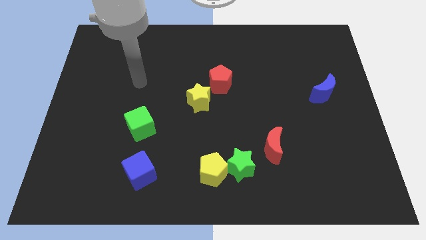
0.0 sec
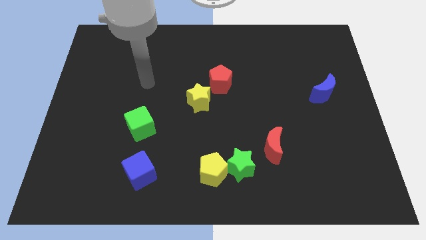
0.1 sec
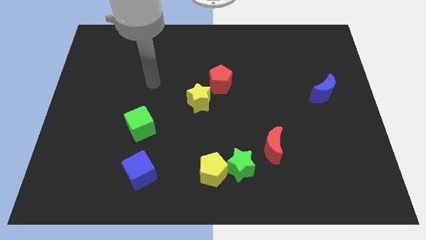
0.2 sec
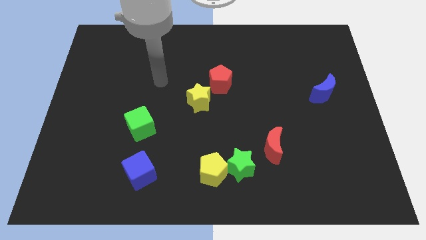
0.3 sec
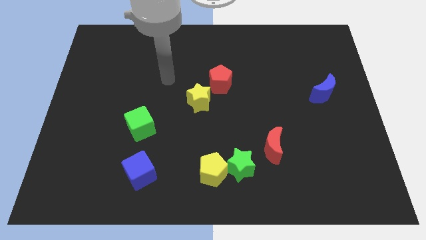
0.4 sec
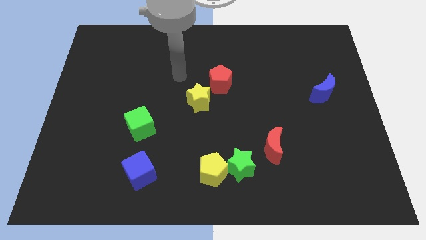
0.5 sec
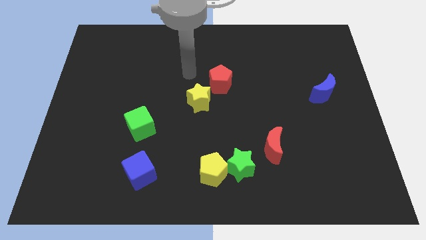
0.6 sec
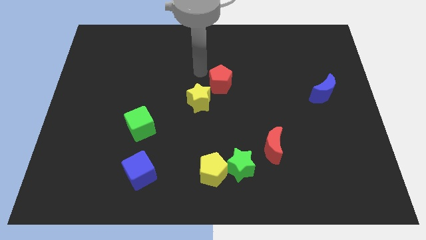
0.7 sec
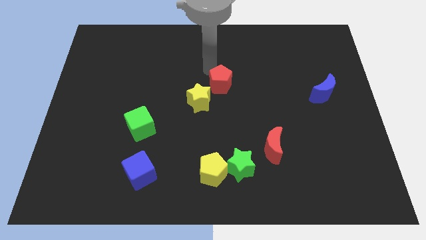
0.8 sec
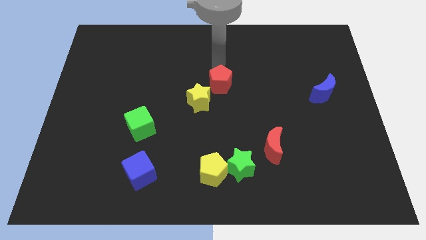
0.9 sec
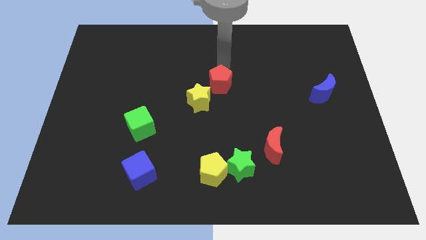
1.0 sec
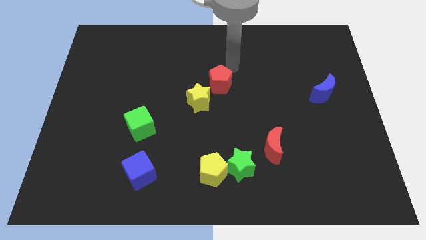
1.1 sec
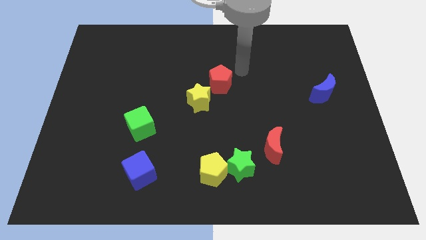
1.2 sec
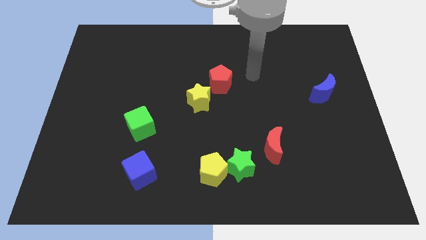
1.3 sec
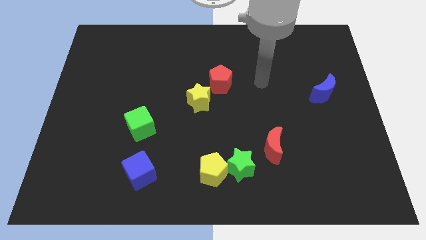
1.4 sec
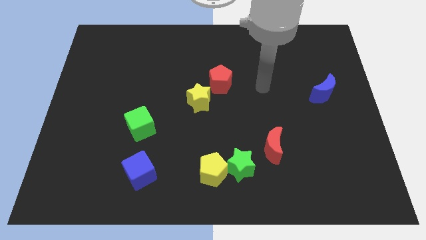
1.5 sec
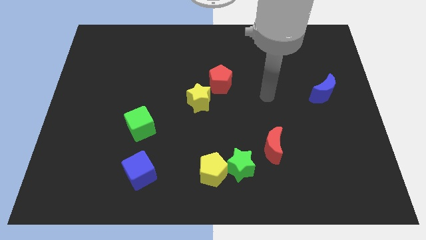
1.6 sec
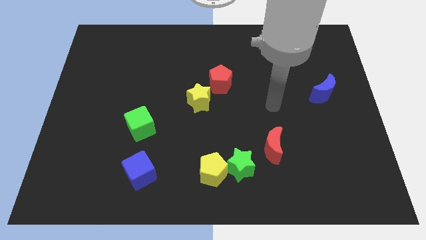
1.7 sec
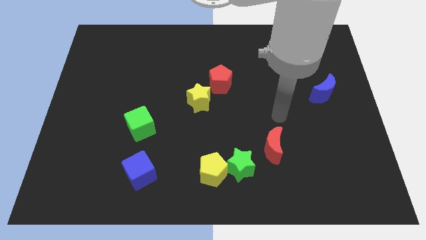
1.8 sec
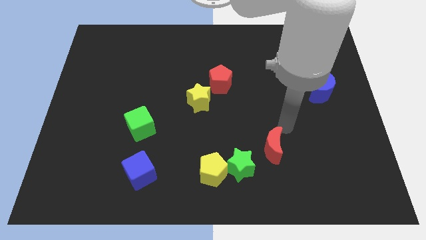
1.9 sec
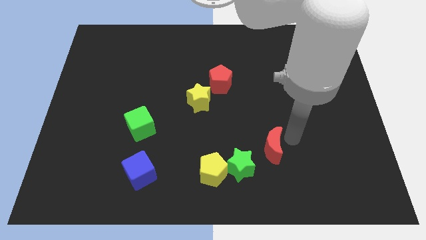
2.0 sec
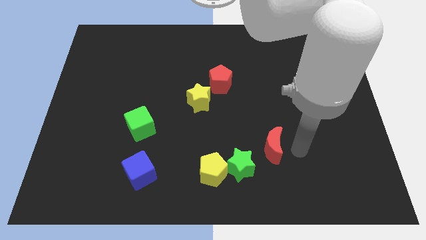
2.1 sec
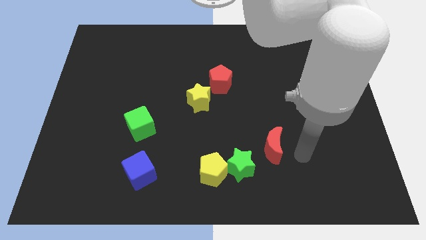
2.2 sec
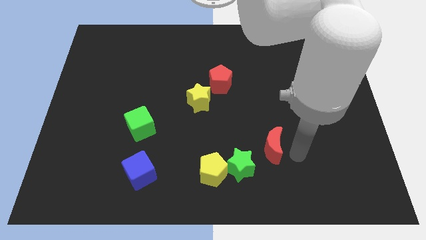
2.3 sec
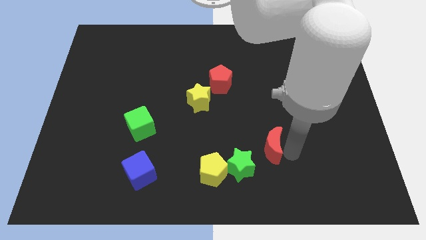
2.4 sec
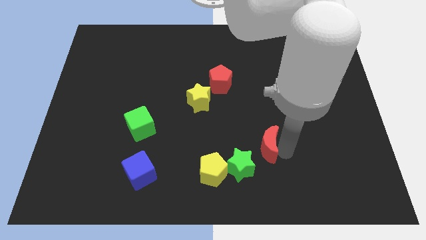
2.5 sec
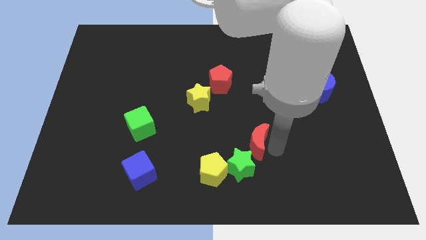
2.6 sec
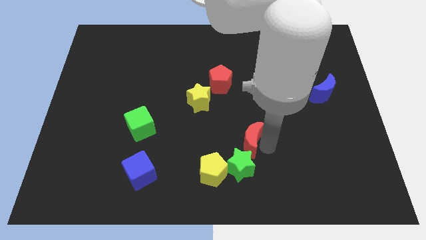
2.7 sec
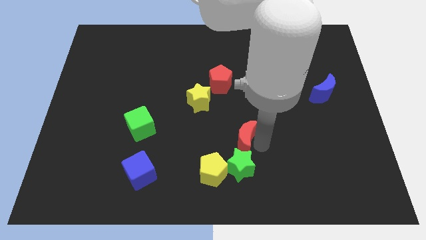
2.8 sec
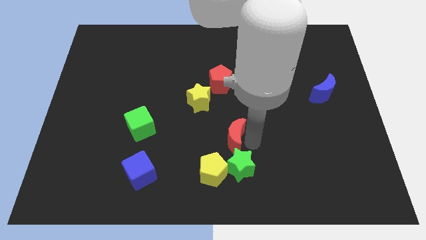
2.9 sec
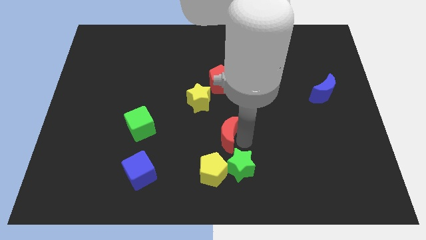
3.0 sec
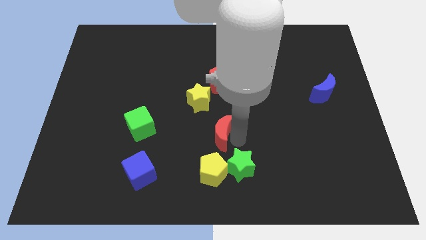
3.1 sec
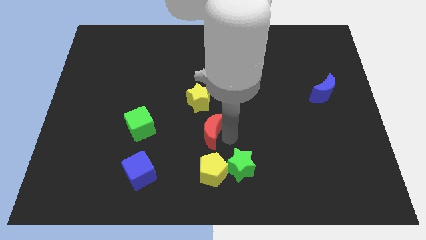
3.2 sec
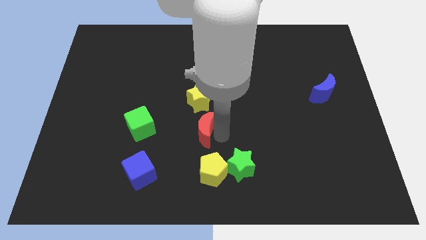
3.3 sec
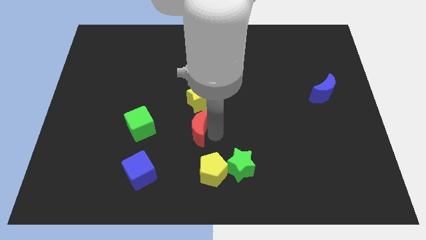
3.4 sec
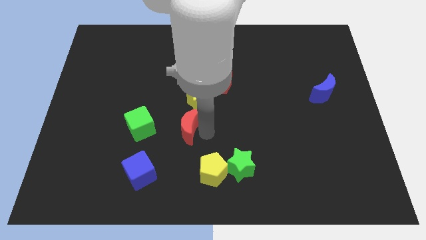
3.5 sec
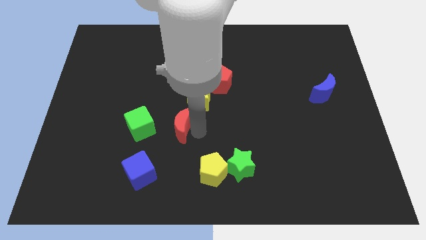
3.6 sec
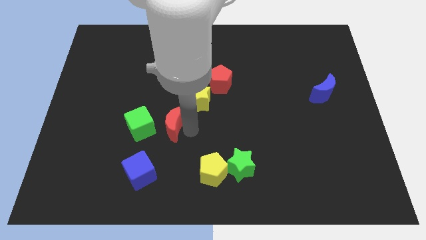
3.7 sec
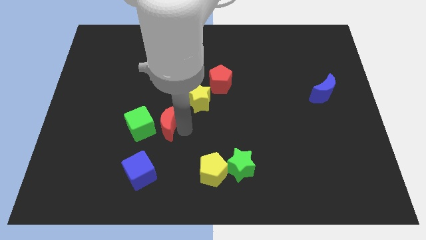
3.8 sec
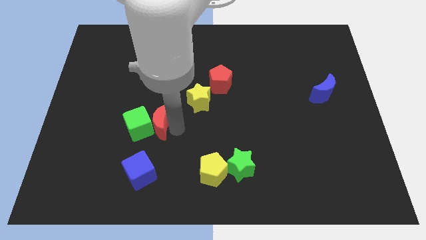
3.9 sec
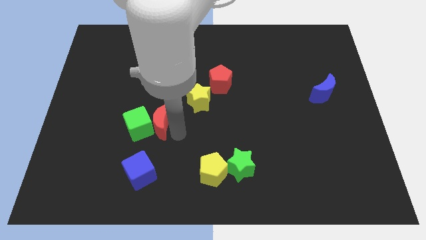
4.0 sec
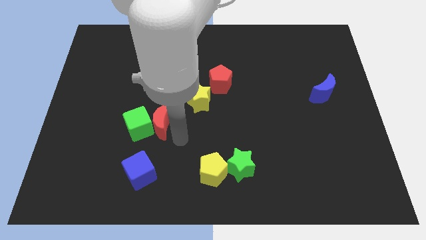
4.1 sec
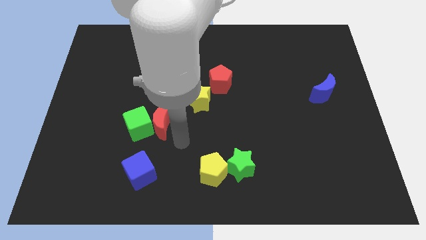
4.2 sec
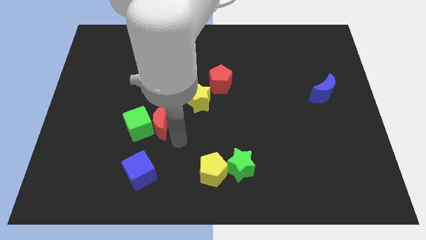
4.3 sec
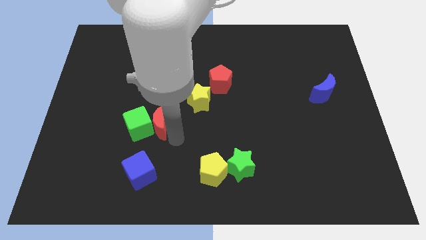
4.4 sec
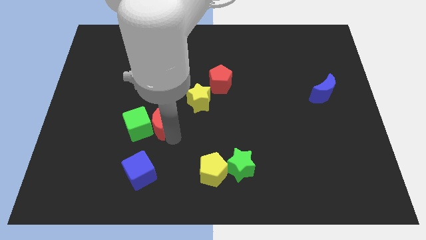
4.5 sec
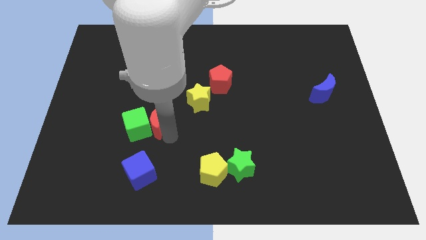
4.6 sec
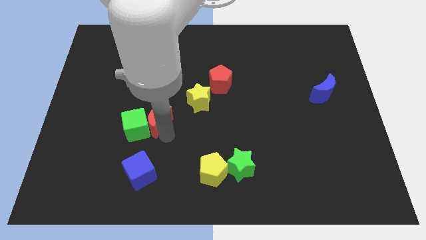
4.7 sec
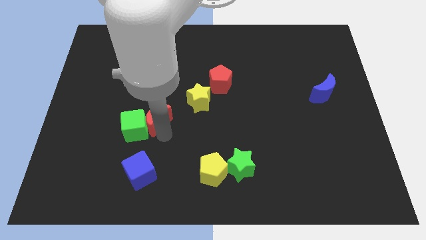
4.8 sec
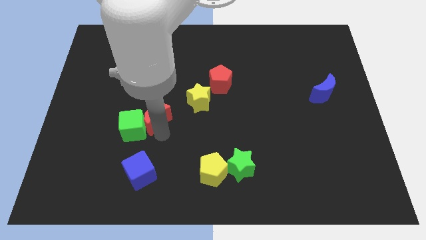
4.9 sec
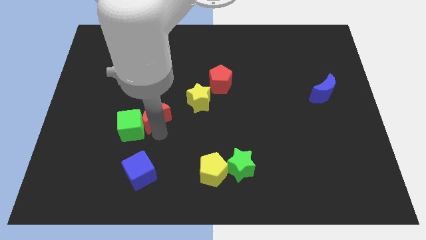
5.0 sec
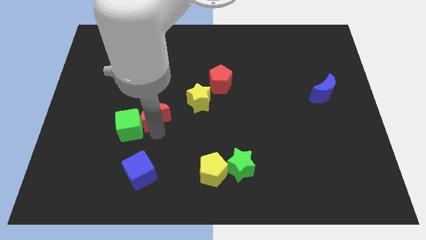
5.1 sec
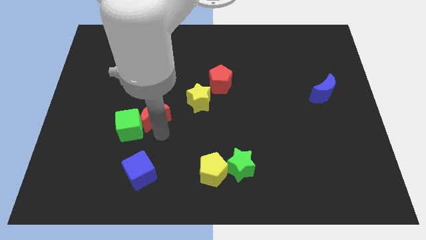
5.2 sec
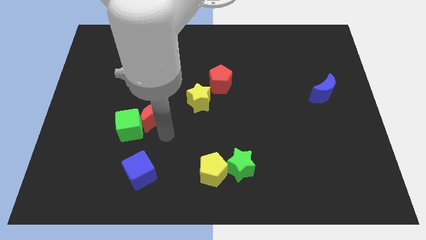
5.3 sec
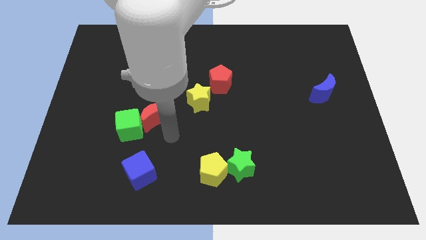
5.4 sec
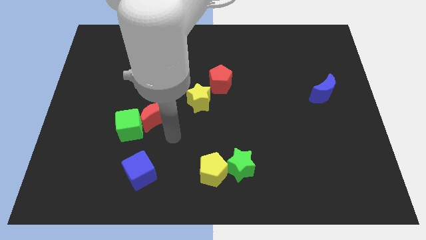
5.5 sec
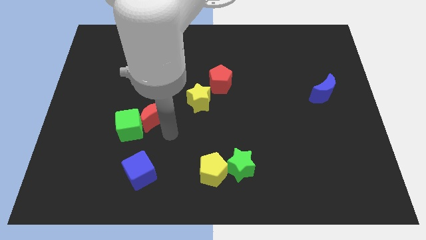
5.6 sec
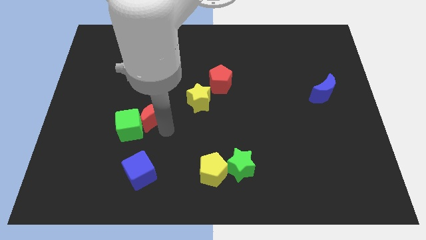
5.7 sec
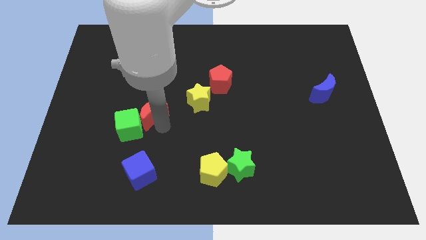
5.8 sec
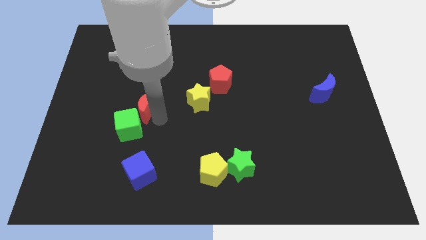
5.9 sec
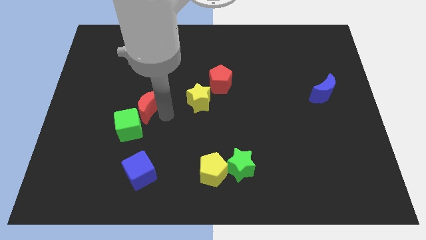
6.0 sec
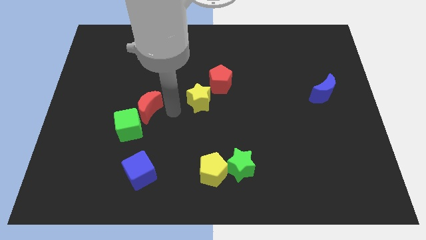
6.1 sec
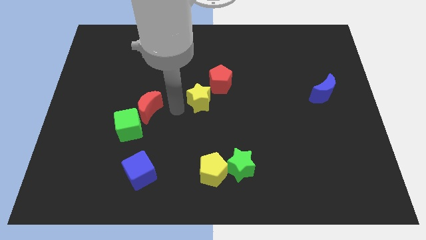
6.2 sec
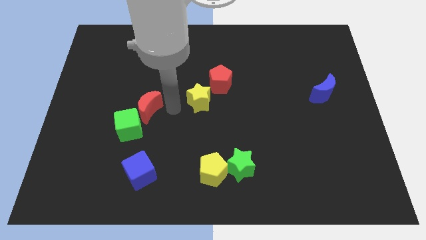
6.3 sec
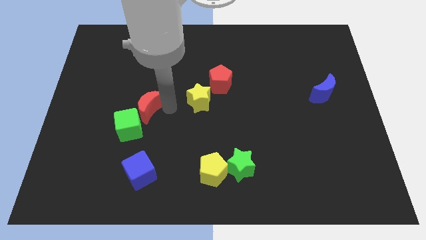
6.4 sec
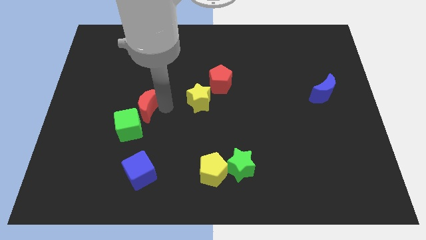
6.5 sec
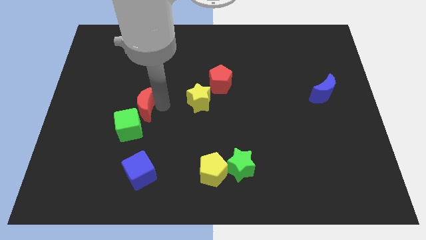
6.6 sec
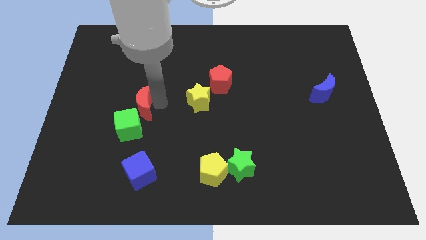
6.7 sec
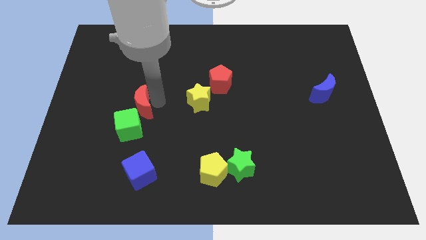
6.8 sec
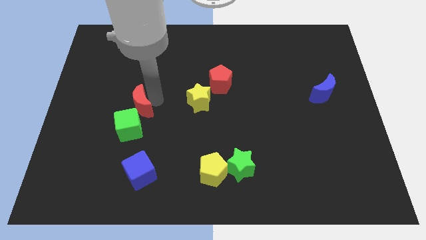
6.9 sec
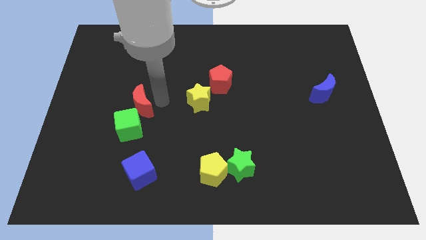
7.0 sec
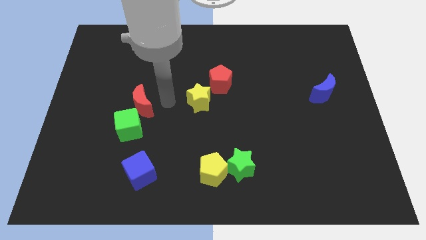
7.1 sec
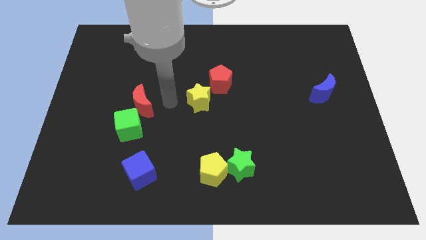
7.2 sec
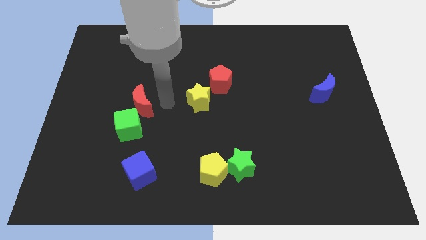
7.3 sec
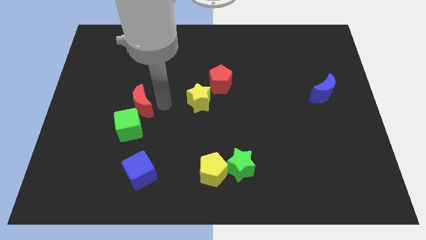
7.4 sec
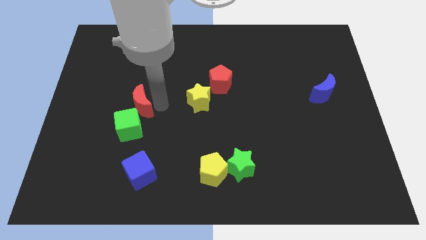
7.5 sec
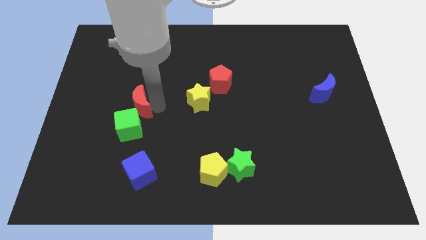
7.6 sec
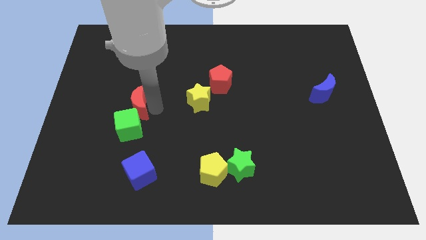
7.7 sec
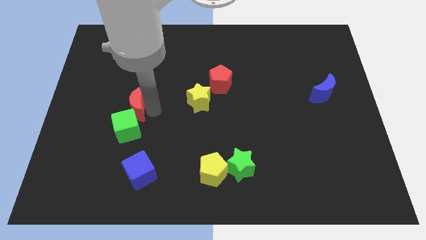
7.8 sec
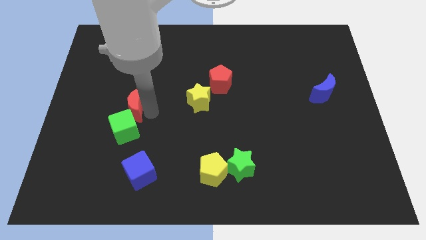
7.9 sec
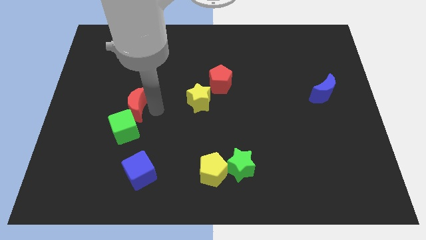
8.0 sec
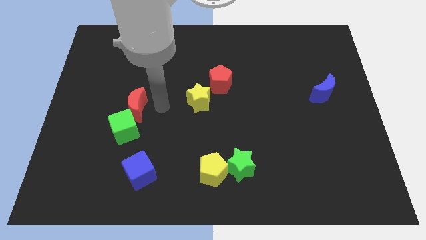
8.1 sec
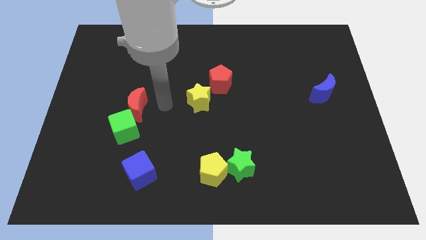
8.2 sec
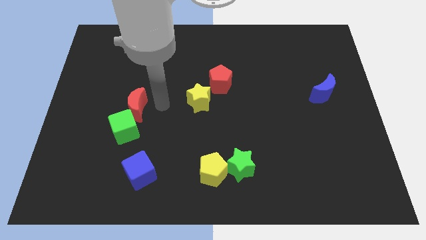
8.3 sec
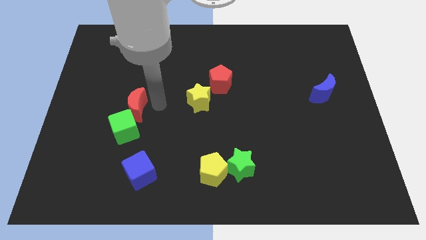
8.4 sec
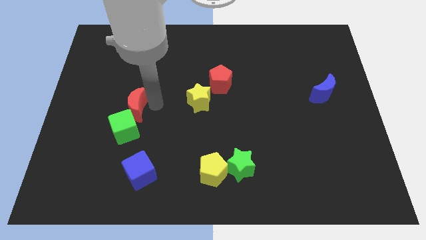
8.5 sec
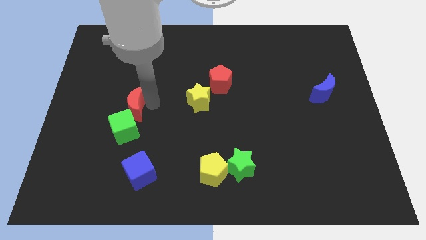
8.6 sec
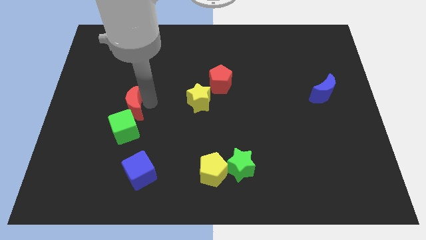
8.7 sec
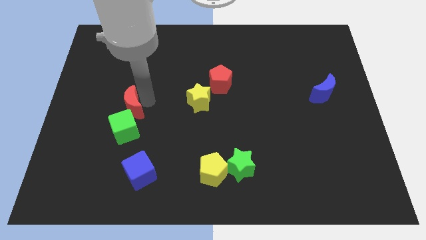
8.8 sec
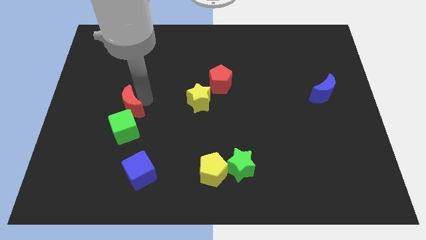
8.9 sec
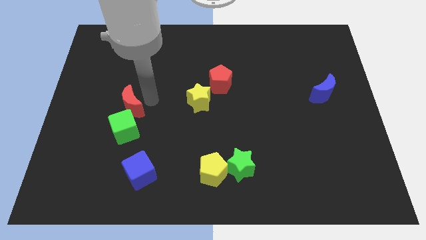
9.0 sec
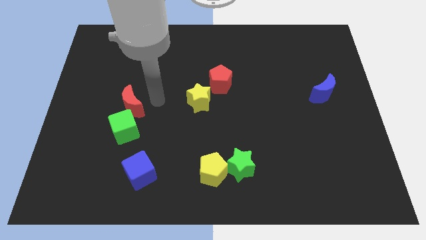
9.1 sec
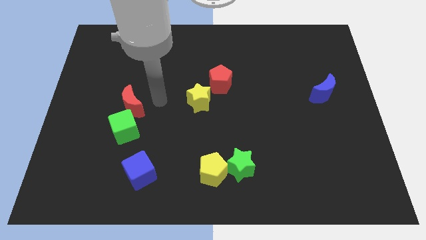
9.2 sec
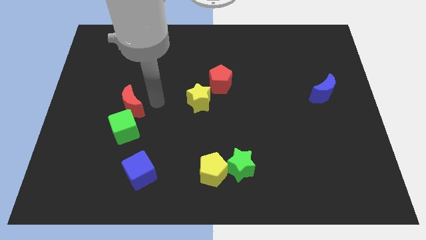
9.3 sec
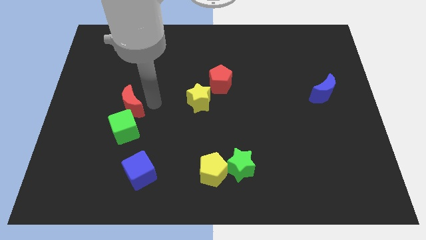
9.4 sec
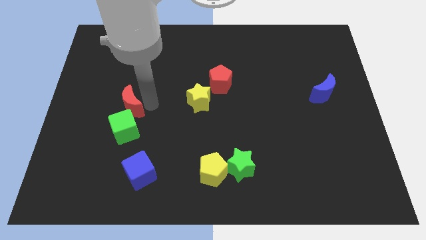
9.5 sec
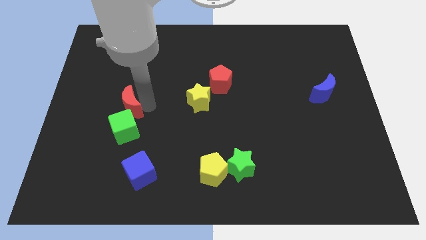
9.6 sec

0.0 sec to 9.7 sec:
push the red moon diagonally up and to the left of the green cube
